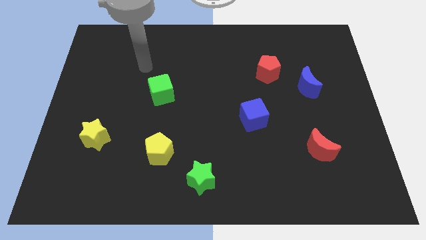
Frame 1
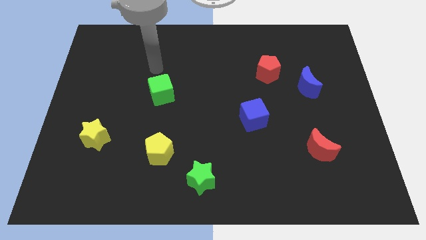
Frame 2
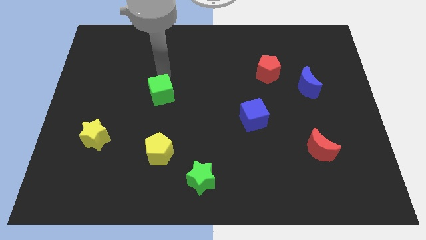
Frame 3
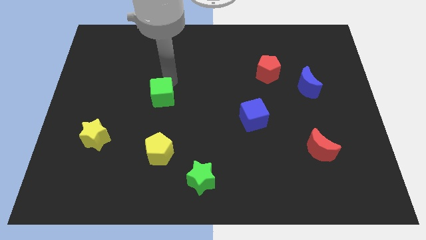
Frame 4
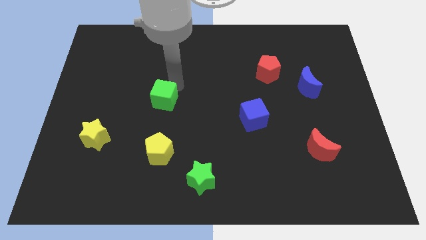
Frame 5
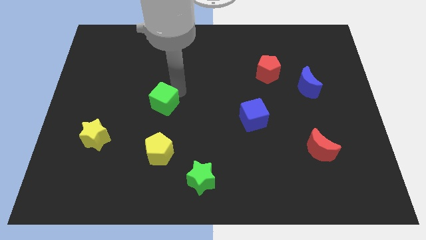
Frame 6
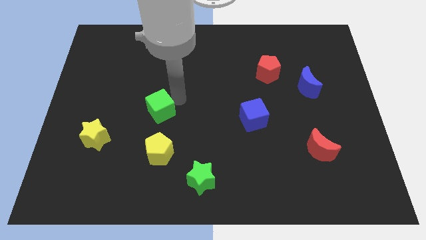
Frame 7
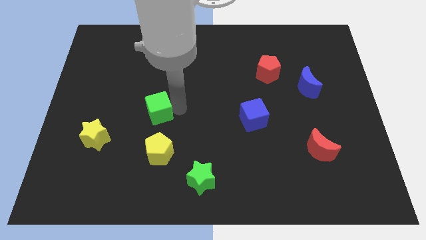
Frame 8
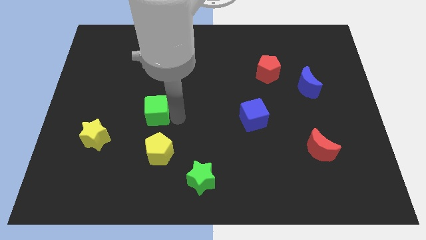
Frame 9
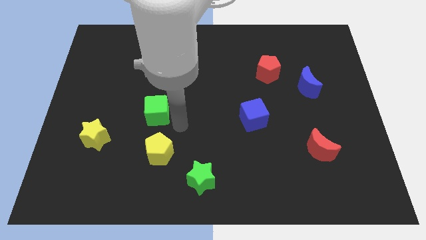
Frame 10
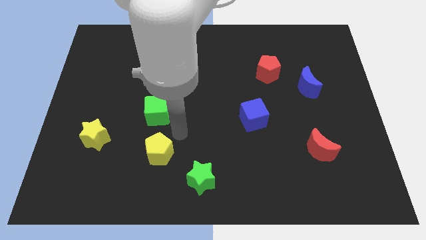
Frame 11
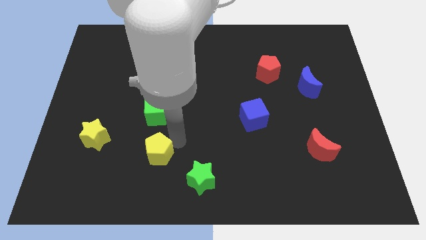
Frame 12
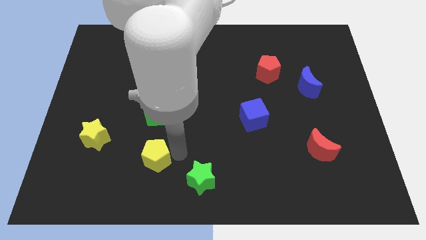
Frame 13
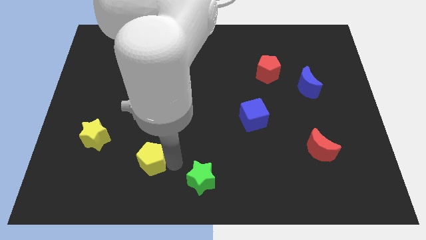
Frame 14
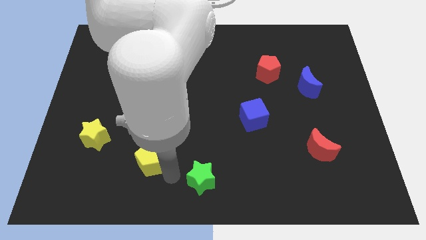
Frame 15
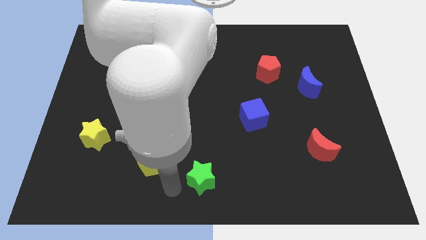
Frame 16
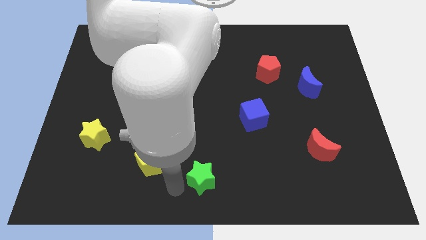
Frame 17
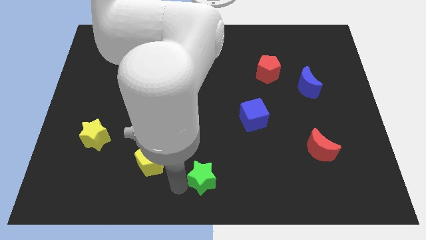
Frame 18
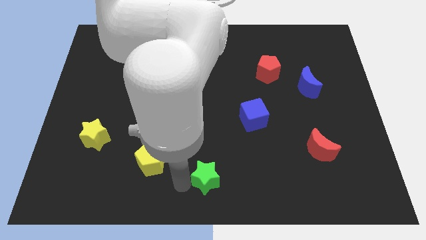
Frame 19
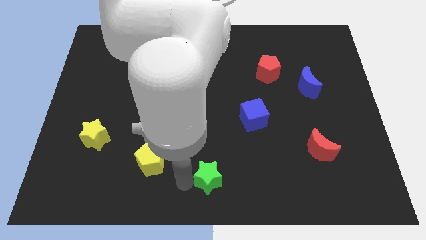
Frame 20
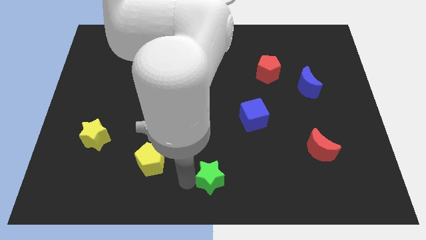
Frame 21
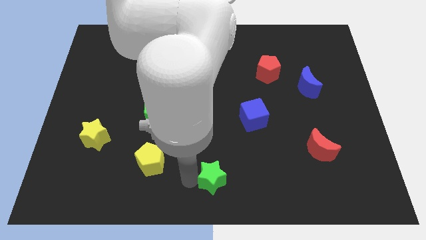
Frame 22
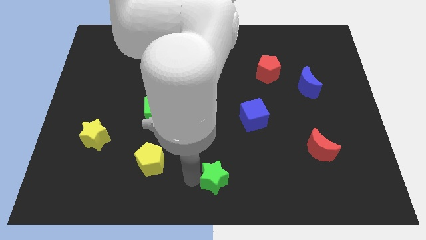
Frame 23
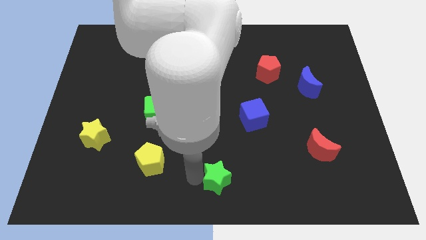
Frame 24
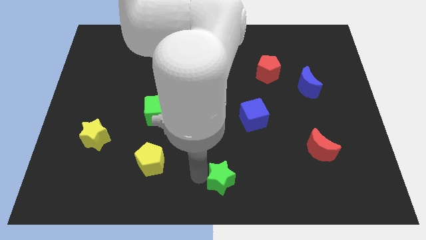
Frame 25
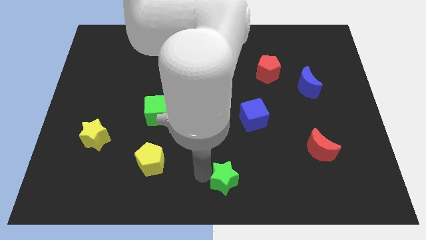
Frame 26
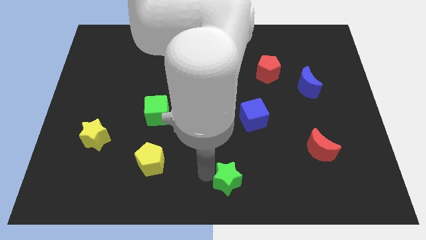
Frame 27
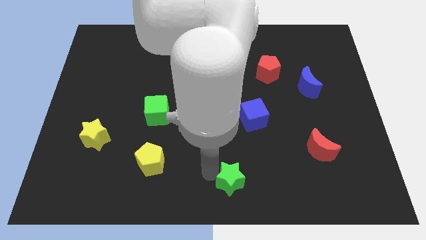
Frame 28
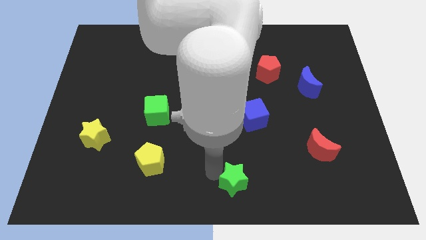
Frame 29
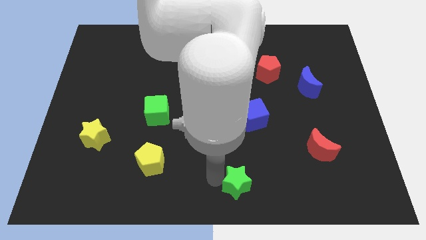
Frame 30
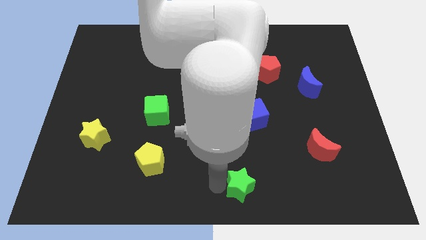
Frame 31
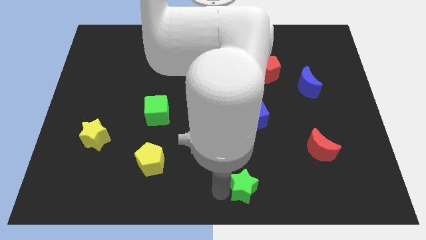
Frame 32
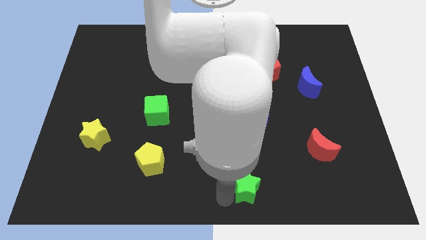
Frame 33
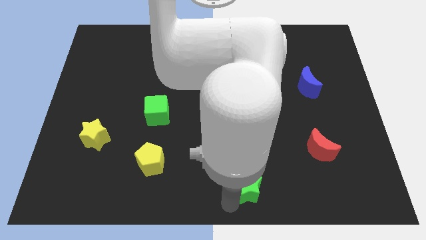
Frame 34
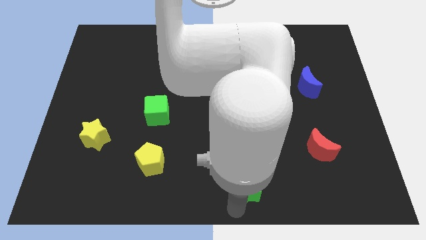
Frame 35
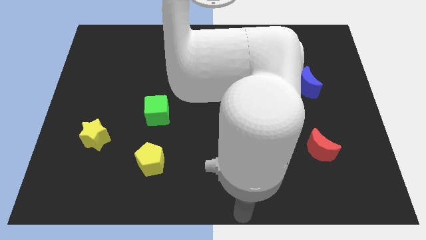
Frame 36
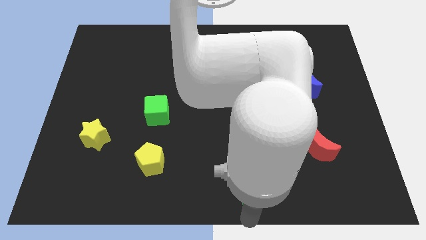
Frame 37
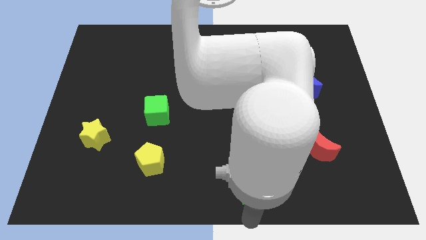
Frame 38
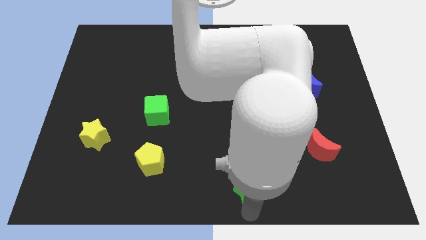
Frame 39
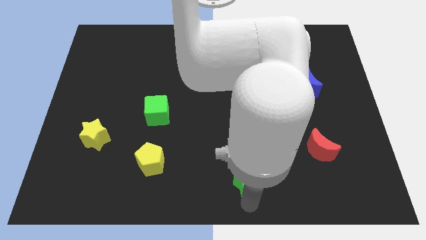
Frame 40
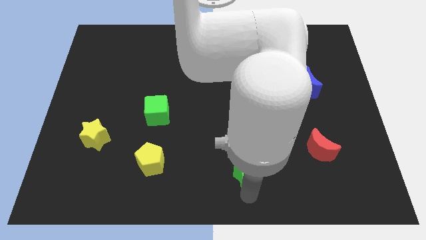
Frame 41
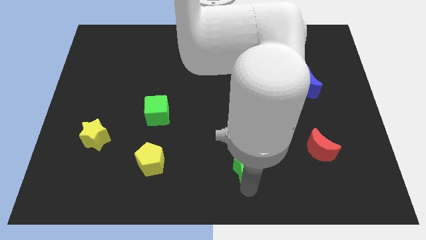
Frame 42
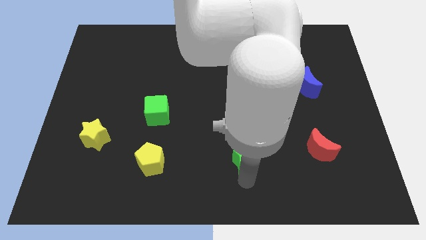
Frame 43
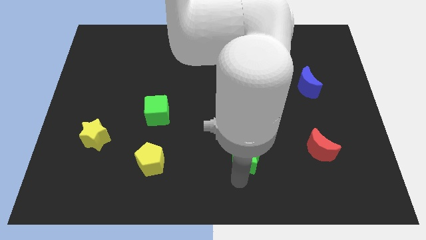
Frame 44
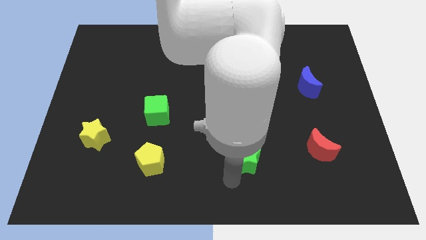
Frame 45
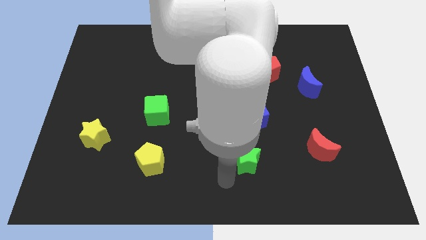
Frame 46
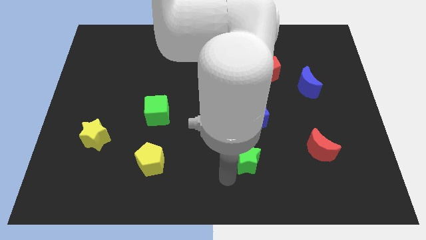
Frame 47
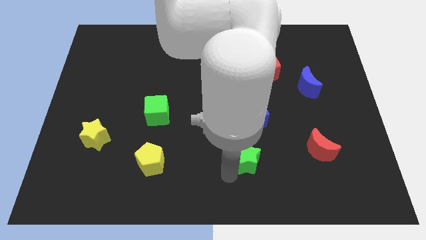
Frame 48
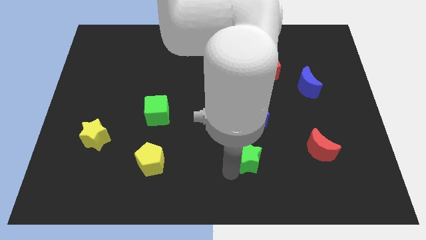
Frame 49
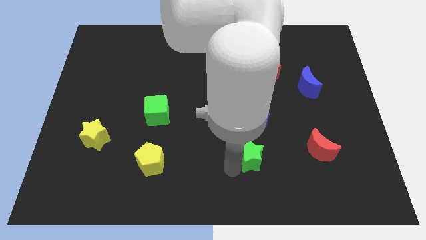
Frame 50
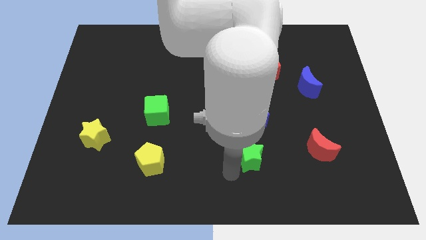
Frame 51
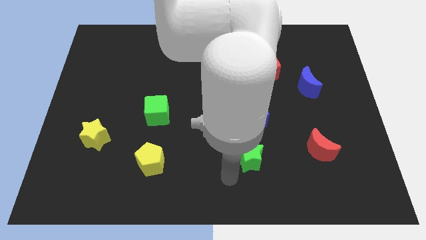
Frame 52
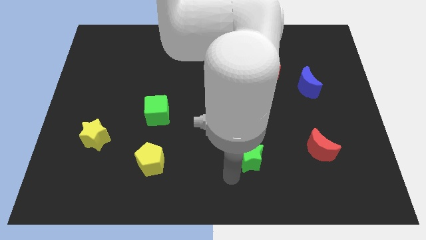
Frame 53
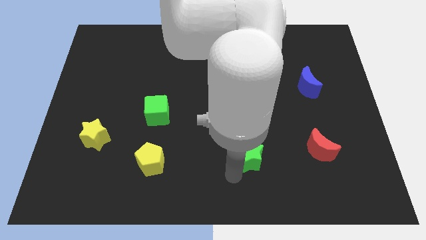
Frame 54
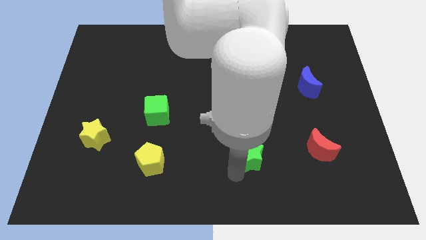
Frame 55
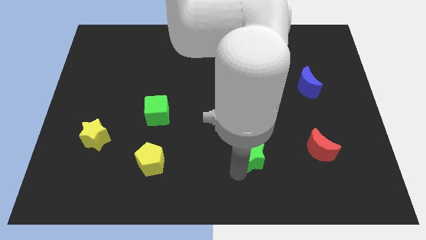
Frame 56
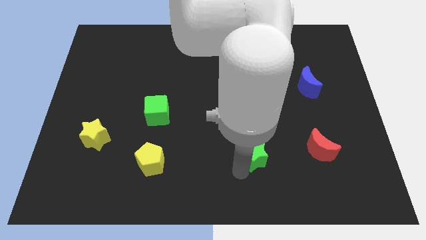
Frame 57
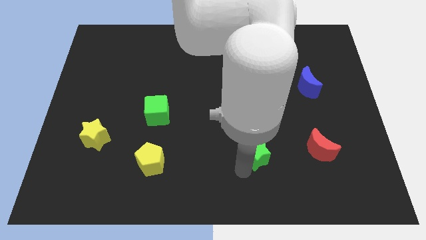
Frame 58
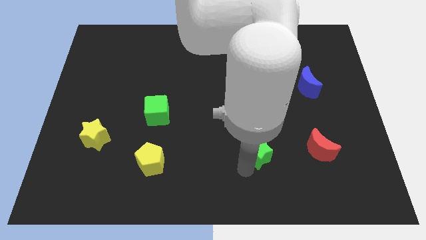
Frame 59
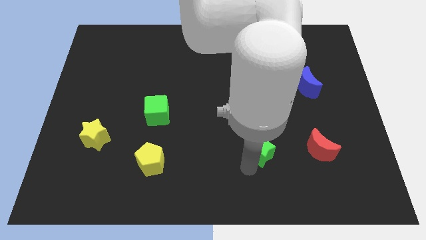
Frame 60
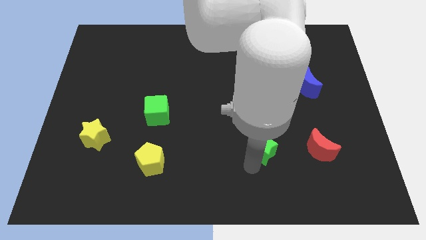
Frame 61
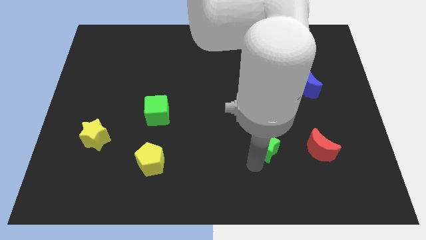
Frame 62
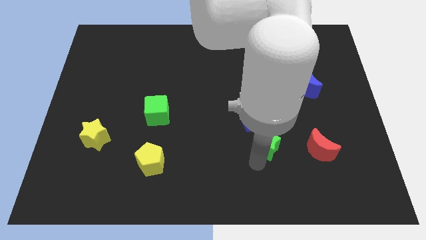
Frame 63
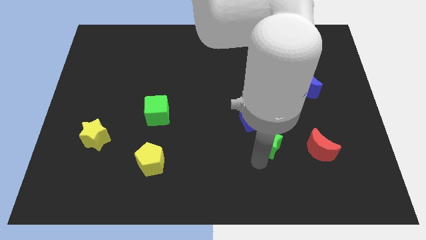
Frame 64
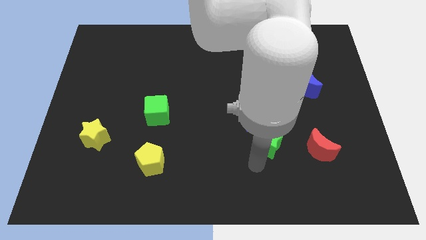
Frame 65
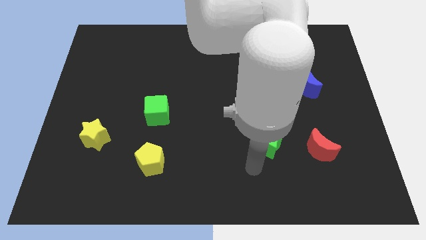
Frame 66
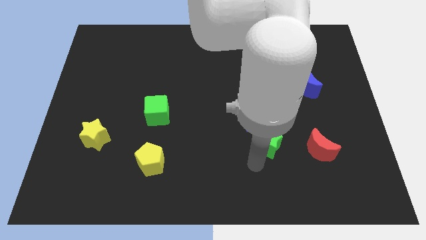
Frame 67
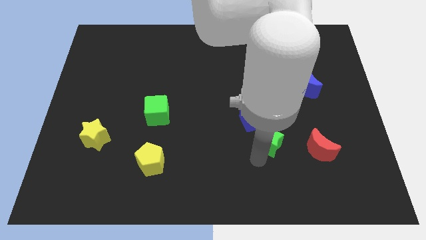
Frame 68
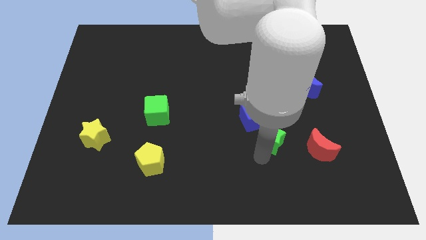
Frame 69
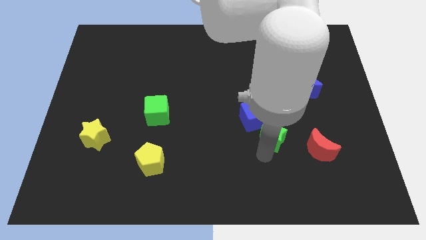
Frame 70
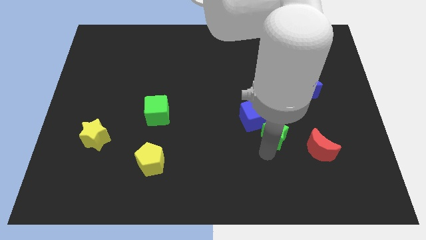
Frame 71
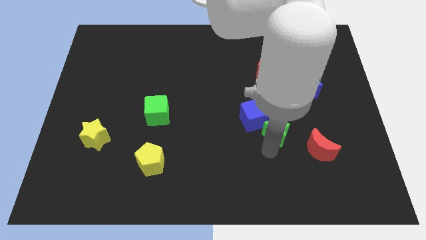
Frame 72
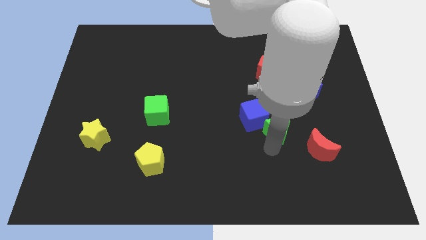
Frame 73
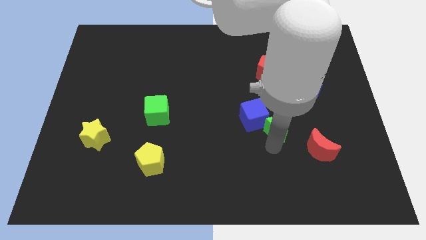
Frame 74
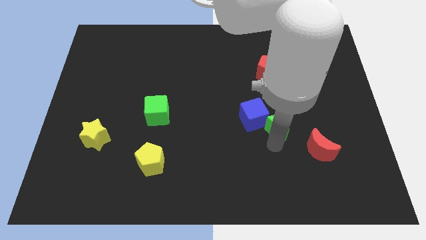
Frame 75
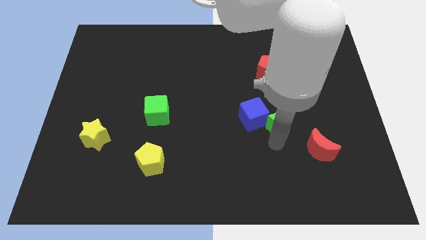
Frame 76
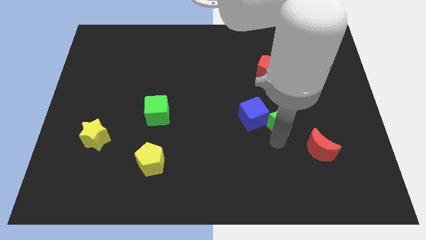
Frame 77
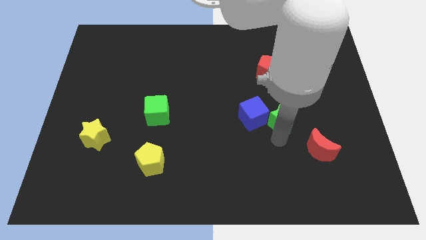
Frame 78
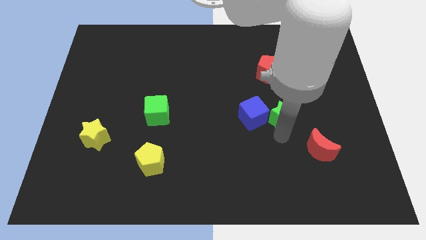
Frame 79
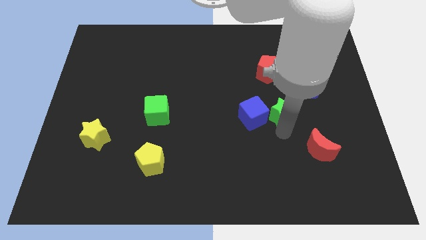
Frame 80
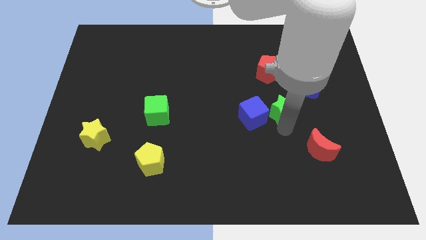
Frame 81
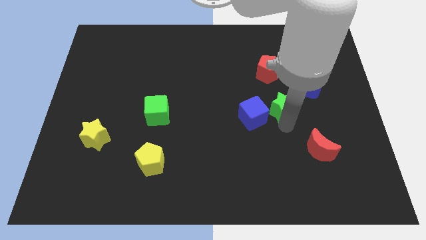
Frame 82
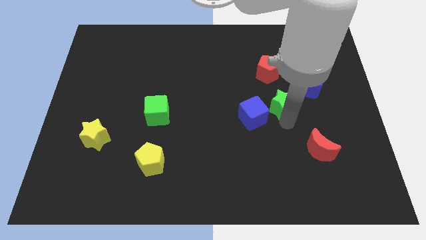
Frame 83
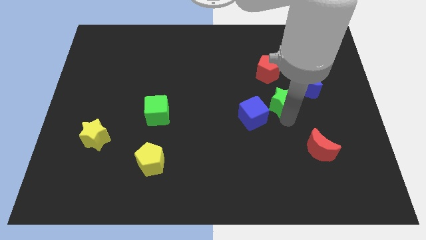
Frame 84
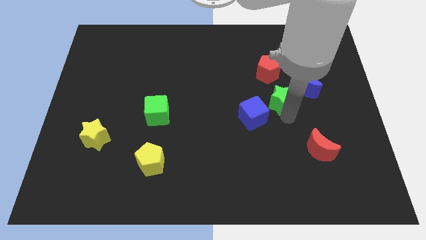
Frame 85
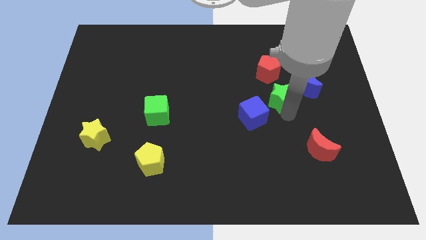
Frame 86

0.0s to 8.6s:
move the green star to the left side of the blue moon
